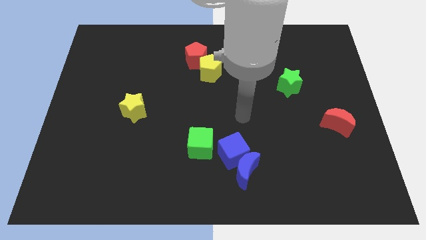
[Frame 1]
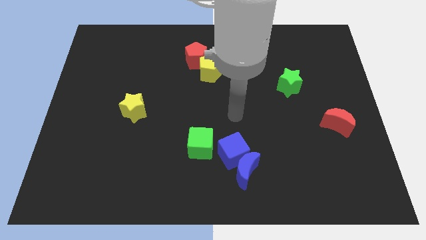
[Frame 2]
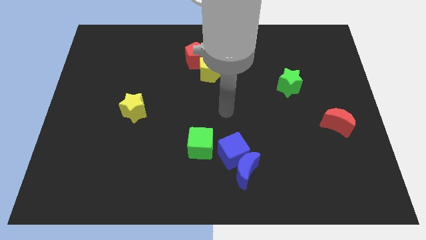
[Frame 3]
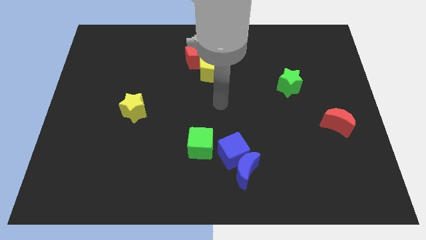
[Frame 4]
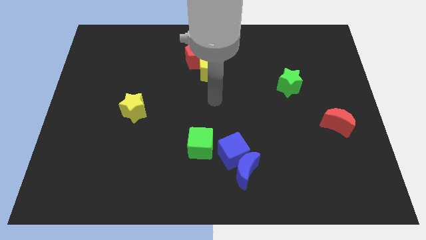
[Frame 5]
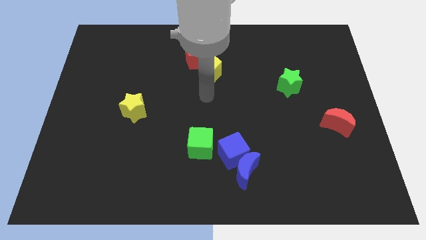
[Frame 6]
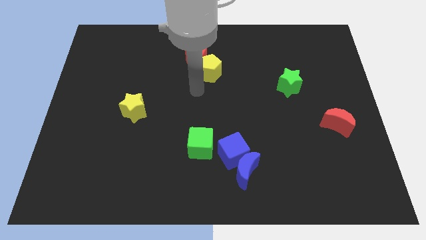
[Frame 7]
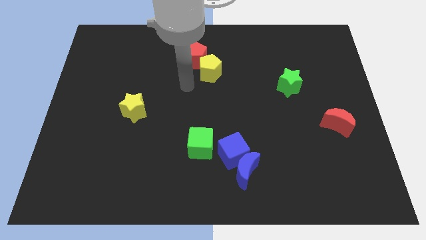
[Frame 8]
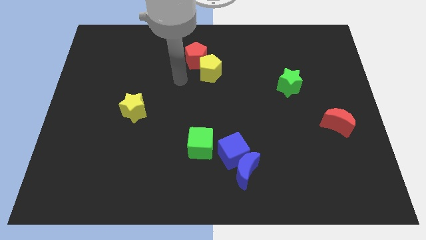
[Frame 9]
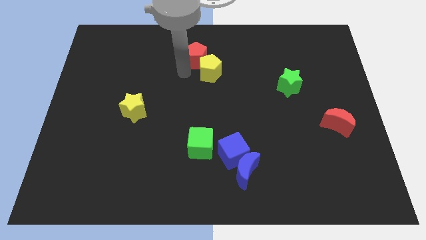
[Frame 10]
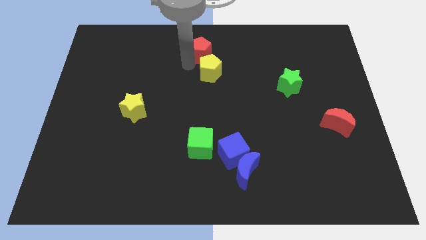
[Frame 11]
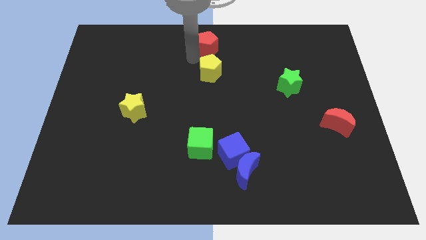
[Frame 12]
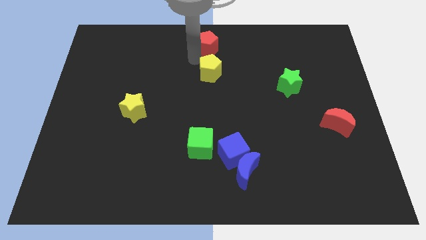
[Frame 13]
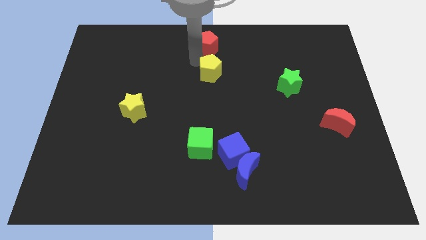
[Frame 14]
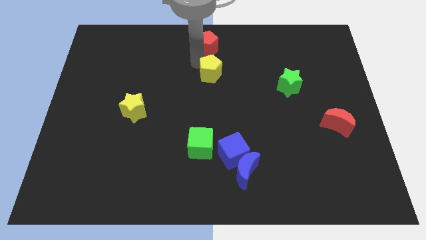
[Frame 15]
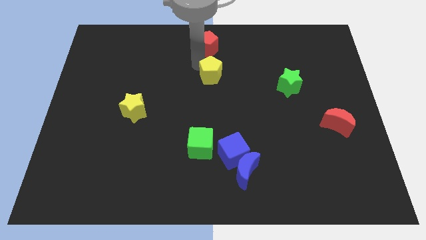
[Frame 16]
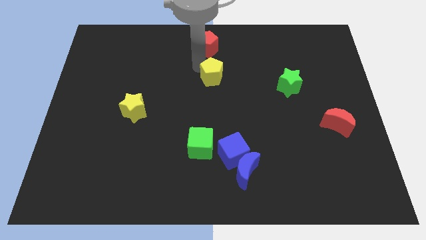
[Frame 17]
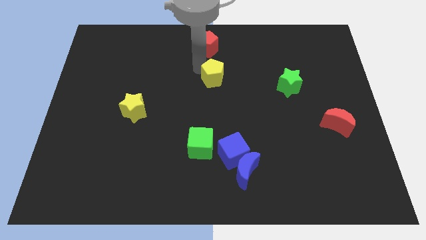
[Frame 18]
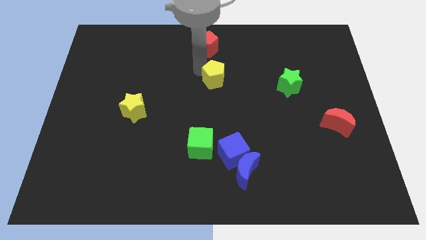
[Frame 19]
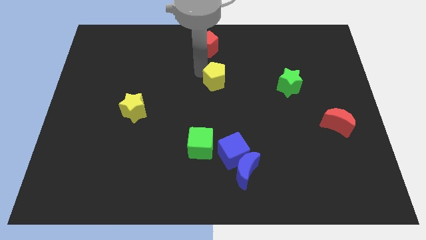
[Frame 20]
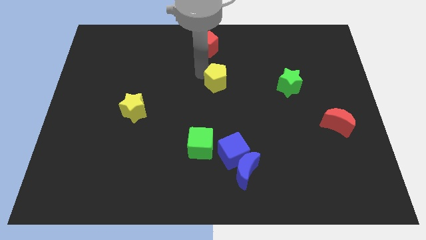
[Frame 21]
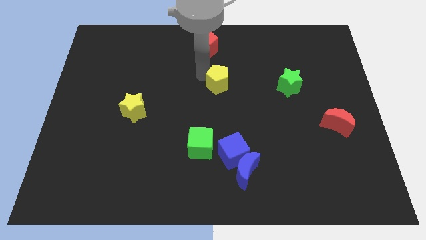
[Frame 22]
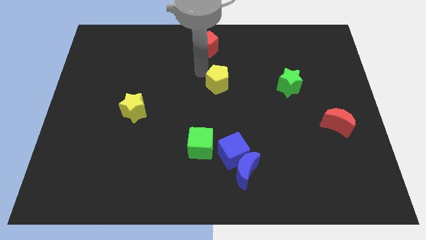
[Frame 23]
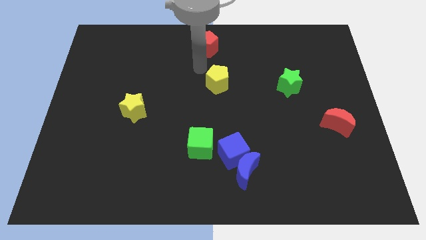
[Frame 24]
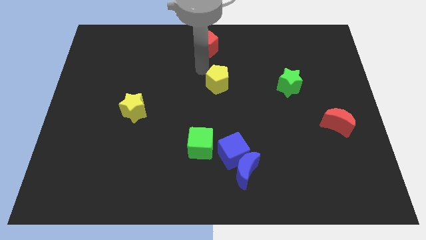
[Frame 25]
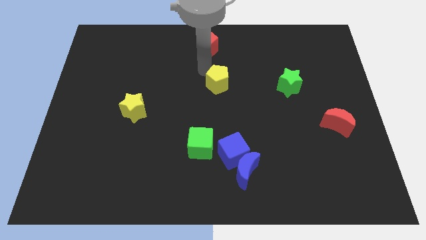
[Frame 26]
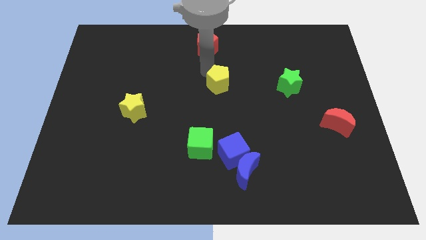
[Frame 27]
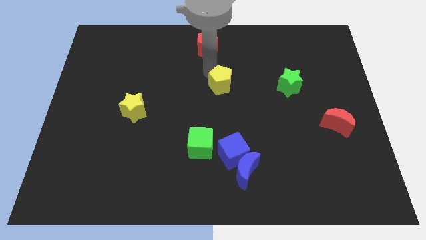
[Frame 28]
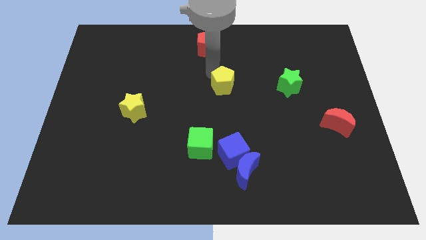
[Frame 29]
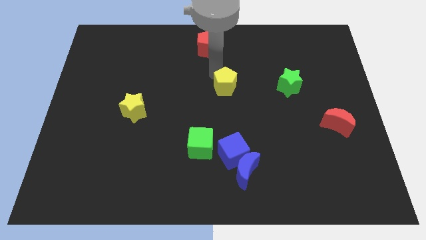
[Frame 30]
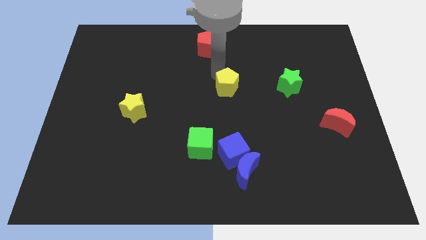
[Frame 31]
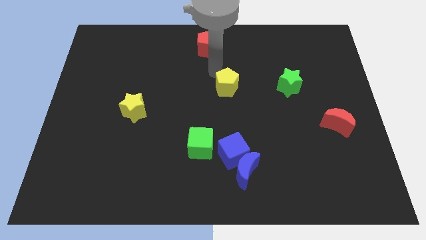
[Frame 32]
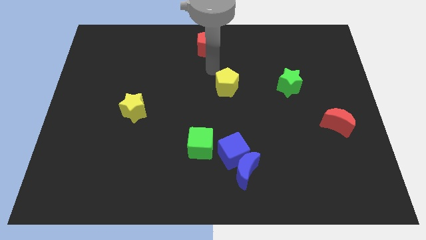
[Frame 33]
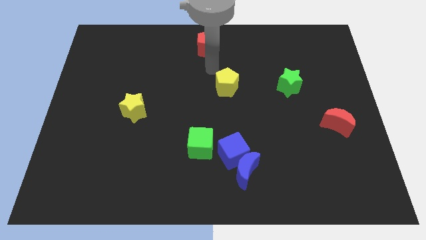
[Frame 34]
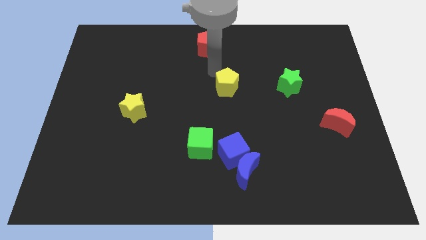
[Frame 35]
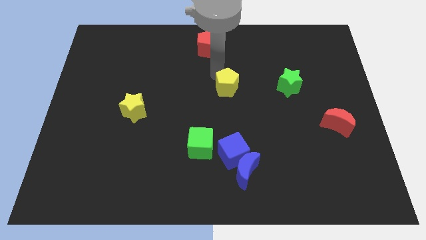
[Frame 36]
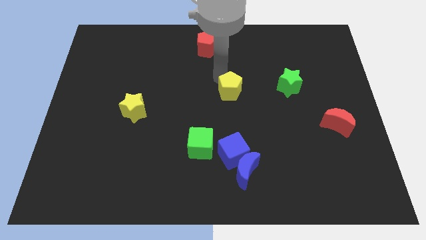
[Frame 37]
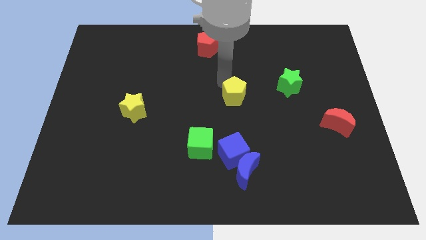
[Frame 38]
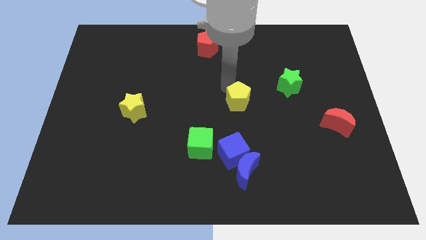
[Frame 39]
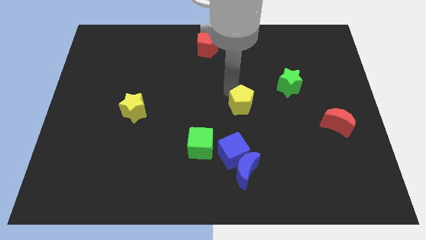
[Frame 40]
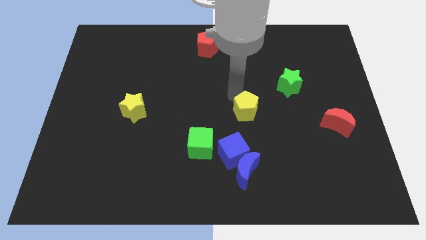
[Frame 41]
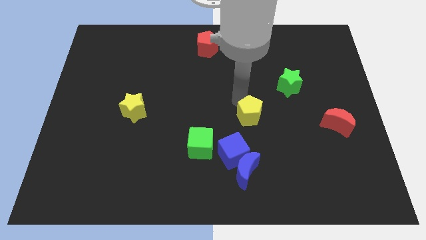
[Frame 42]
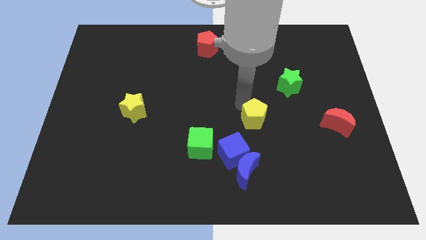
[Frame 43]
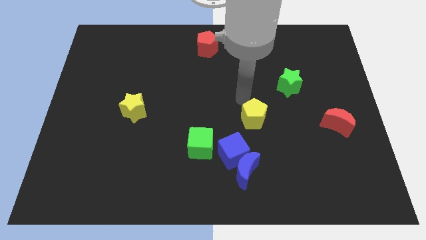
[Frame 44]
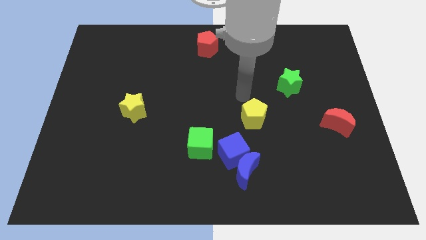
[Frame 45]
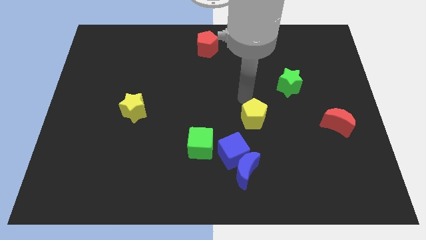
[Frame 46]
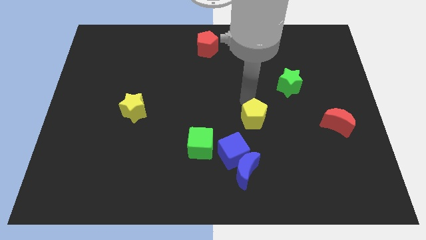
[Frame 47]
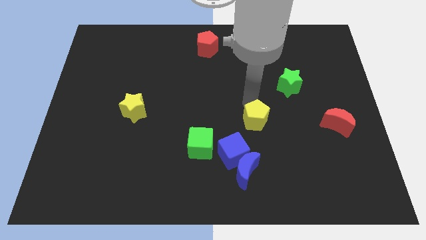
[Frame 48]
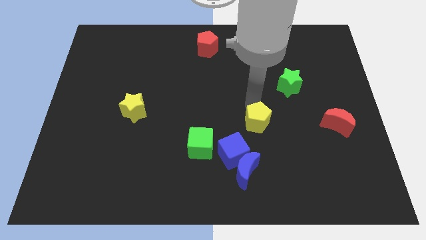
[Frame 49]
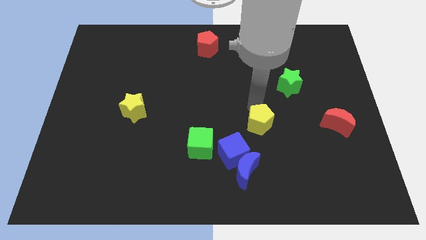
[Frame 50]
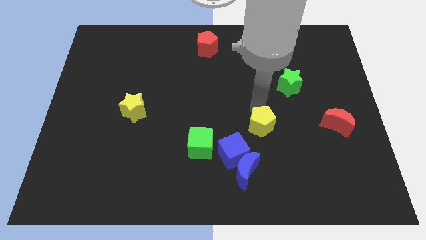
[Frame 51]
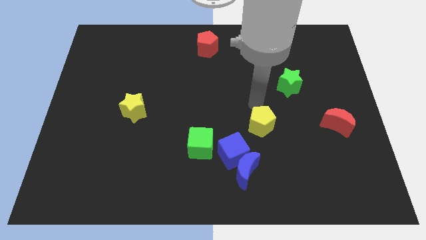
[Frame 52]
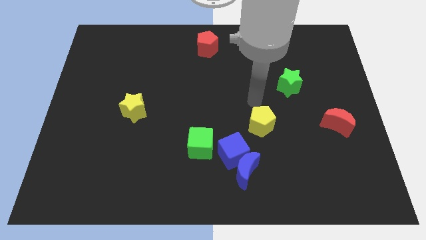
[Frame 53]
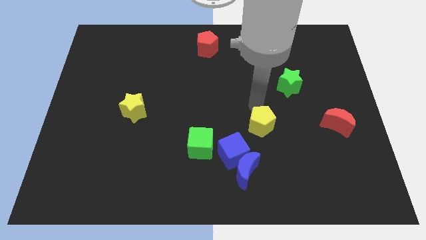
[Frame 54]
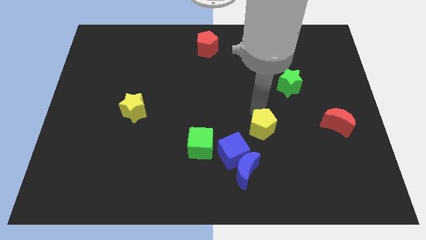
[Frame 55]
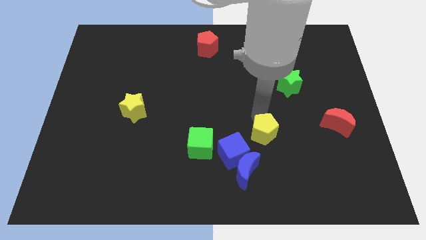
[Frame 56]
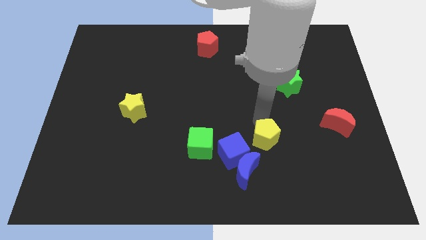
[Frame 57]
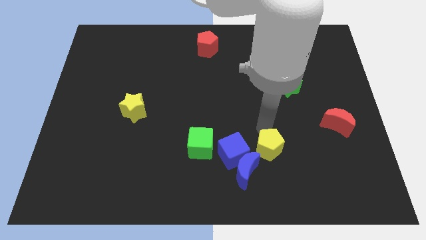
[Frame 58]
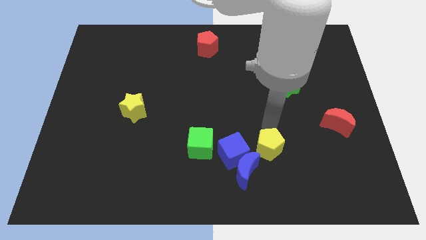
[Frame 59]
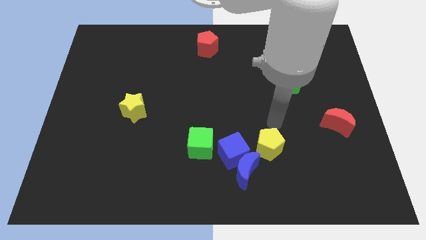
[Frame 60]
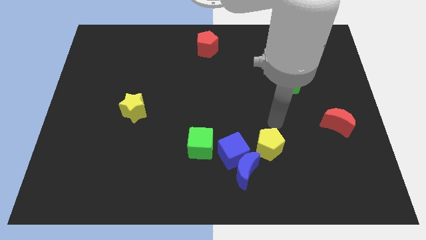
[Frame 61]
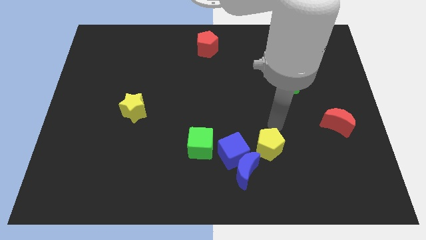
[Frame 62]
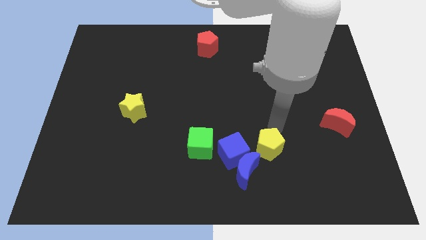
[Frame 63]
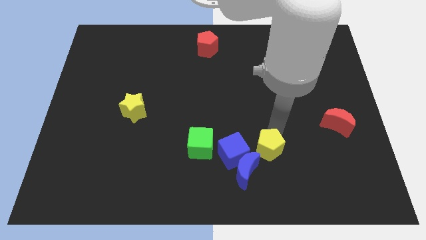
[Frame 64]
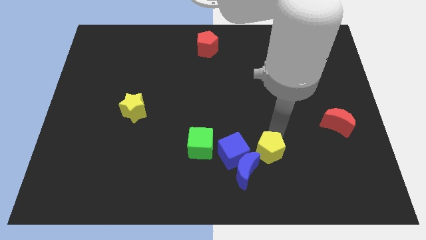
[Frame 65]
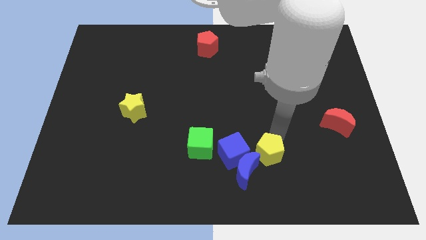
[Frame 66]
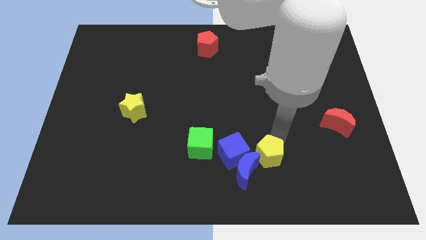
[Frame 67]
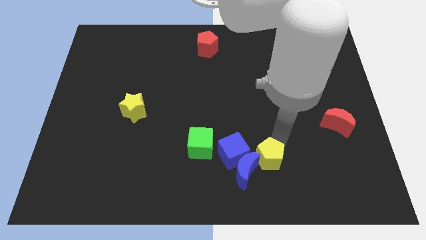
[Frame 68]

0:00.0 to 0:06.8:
push the yellow pentagon diagonally down and to the right of the blue cube
